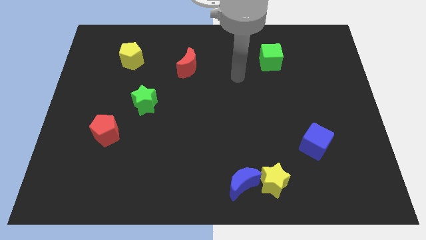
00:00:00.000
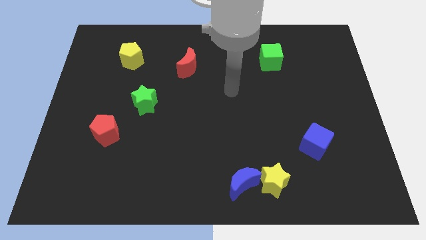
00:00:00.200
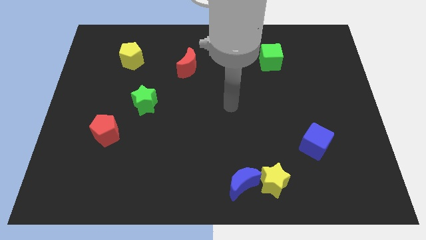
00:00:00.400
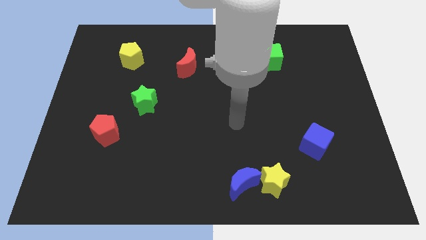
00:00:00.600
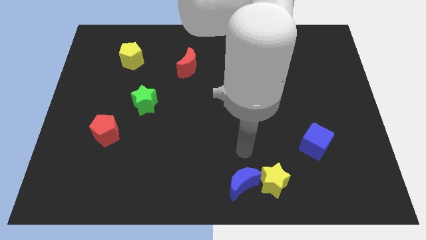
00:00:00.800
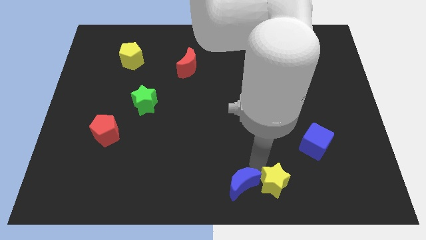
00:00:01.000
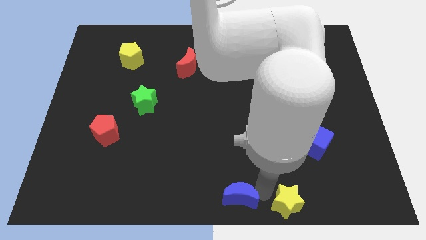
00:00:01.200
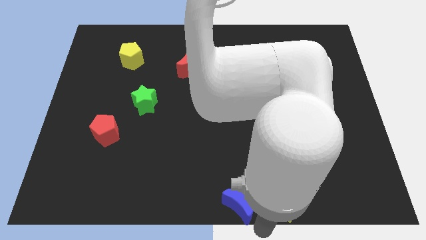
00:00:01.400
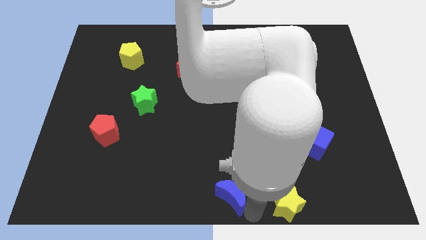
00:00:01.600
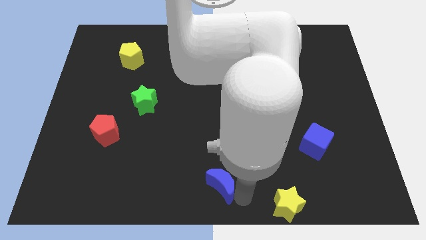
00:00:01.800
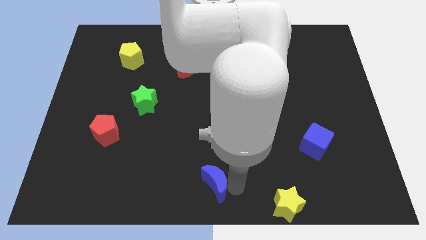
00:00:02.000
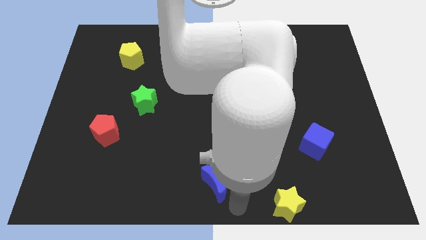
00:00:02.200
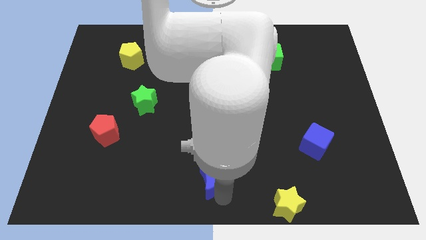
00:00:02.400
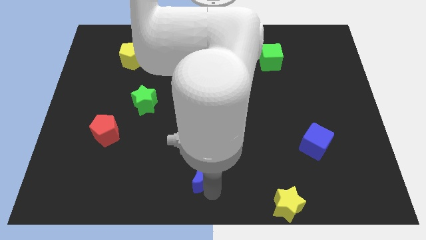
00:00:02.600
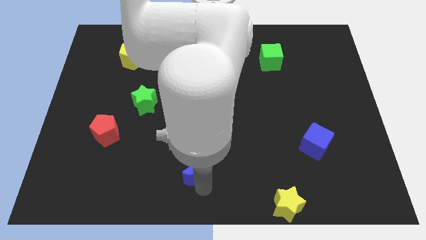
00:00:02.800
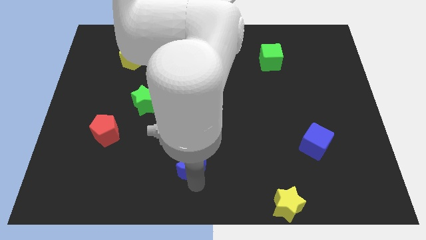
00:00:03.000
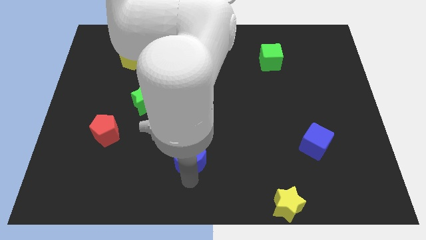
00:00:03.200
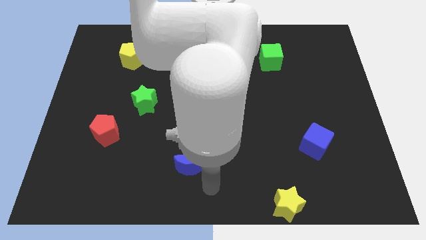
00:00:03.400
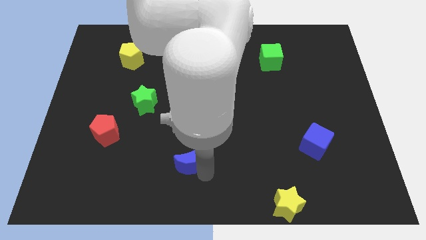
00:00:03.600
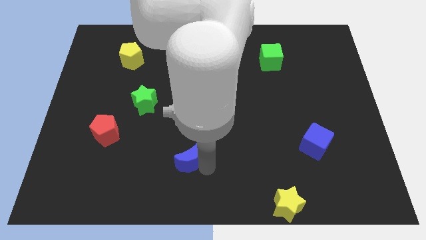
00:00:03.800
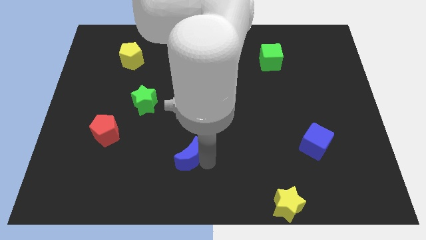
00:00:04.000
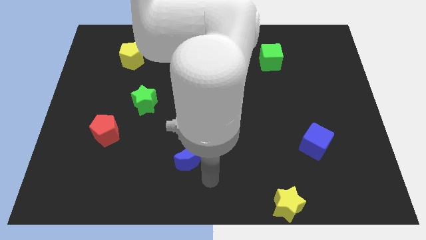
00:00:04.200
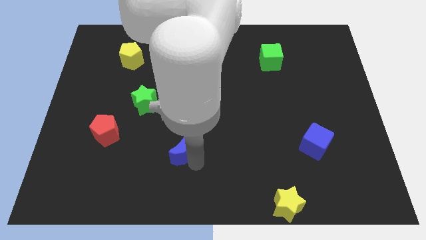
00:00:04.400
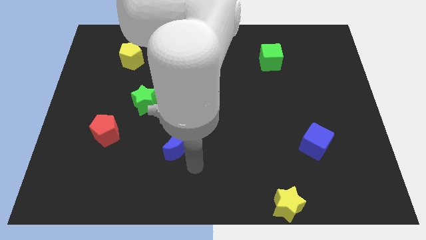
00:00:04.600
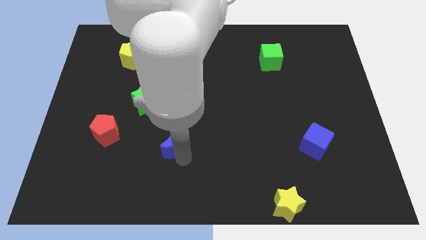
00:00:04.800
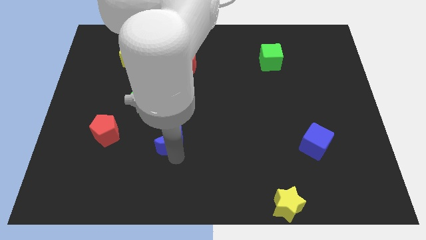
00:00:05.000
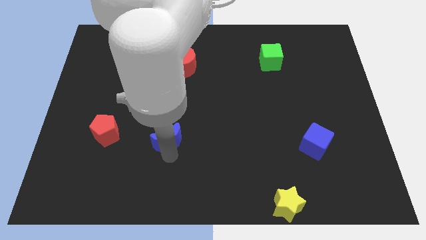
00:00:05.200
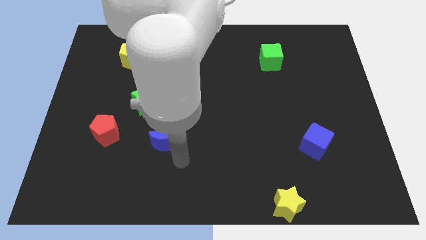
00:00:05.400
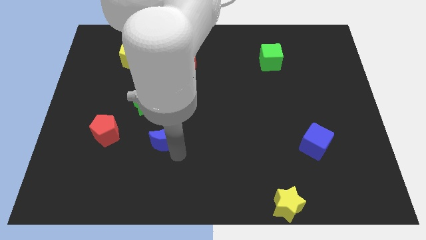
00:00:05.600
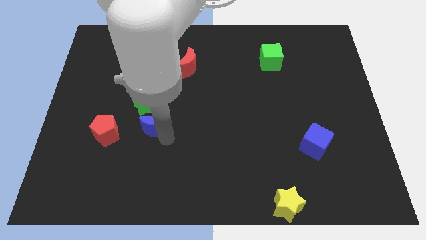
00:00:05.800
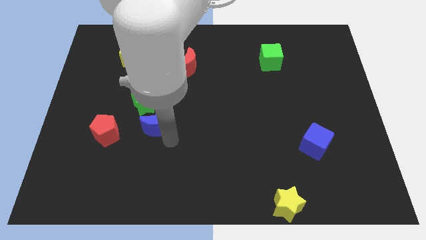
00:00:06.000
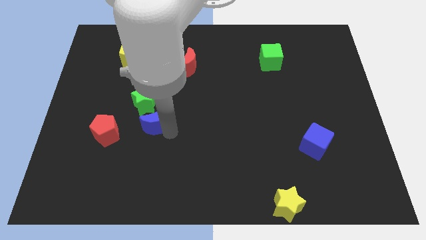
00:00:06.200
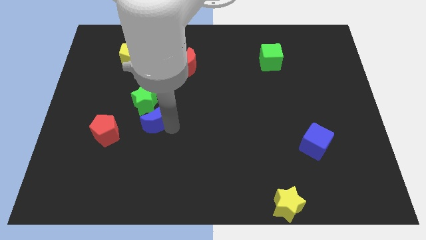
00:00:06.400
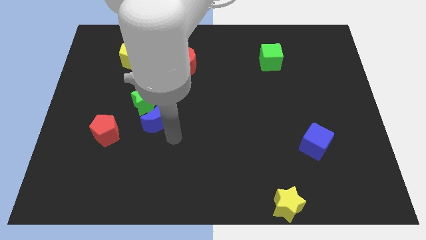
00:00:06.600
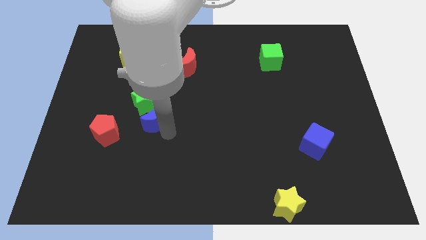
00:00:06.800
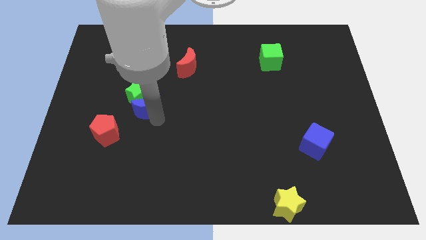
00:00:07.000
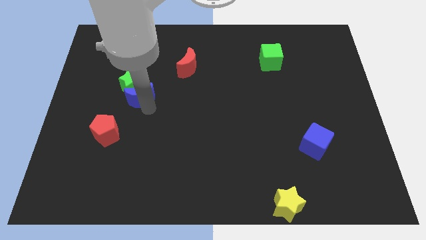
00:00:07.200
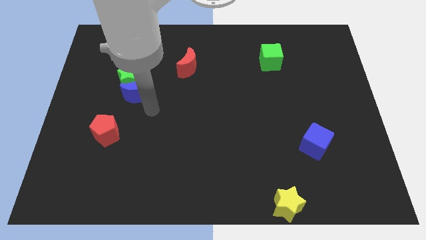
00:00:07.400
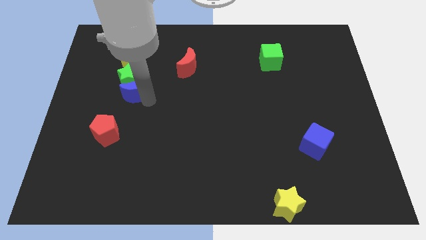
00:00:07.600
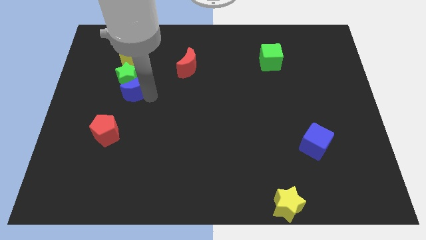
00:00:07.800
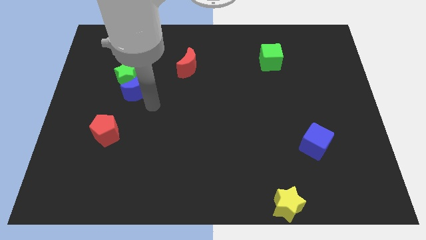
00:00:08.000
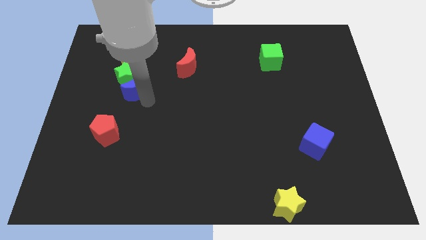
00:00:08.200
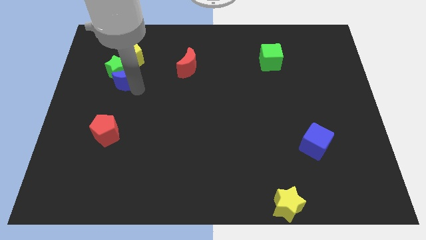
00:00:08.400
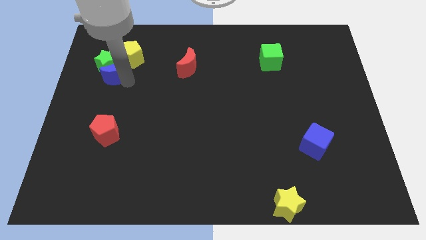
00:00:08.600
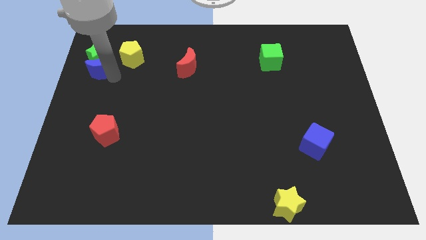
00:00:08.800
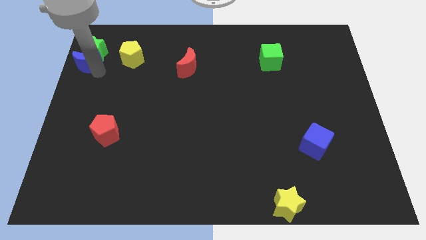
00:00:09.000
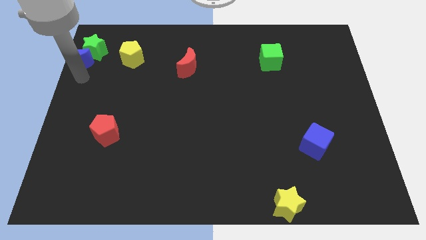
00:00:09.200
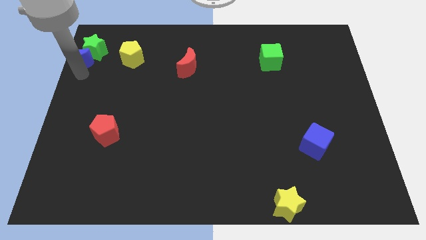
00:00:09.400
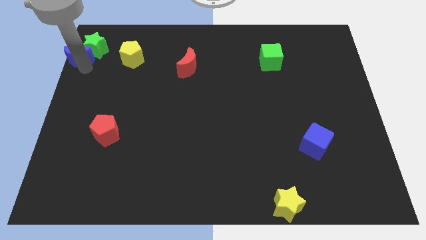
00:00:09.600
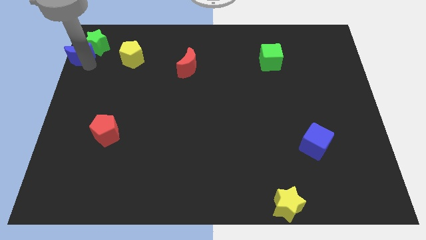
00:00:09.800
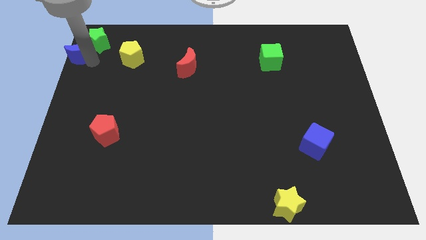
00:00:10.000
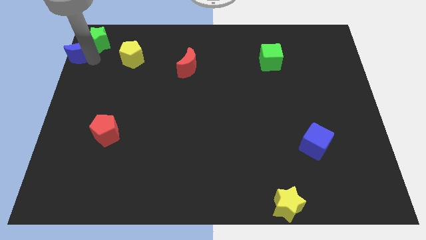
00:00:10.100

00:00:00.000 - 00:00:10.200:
push the blue moon to the top left of the board
